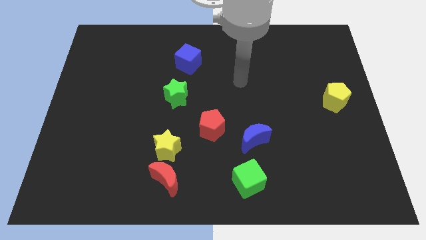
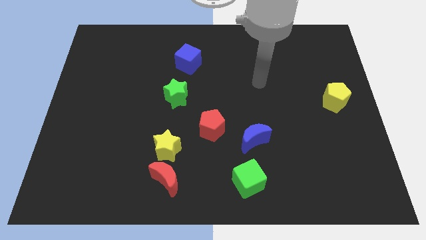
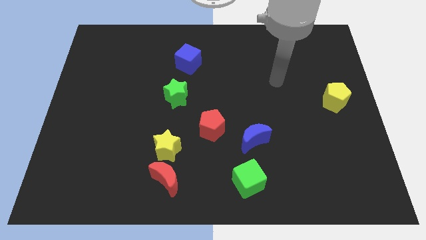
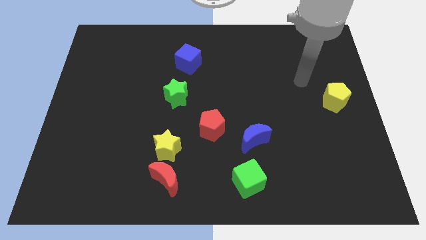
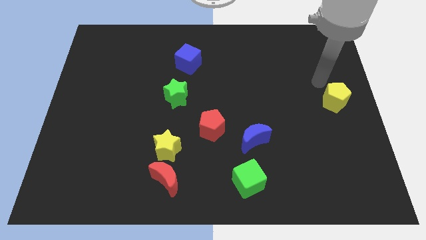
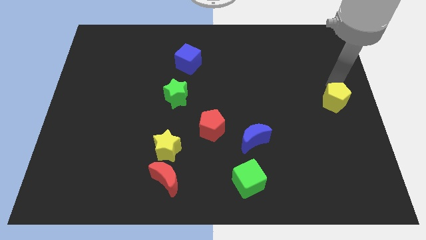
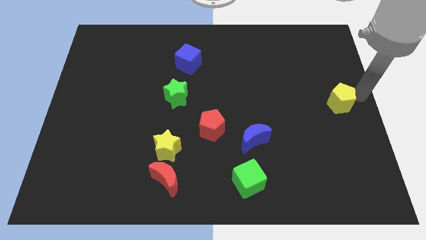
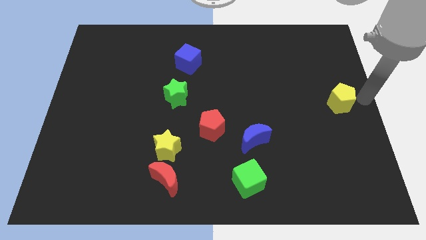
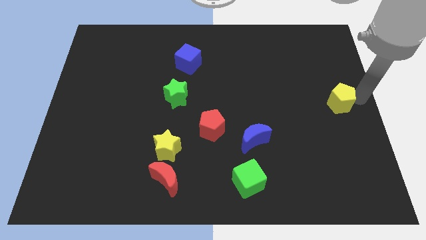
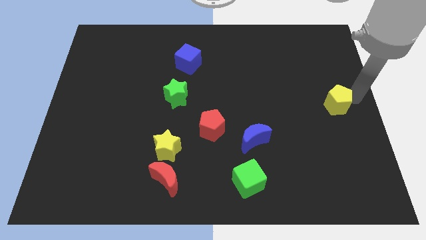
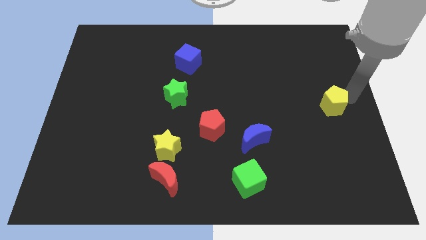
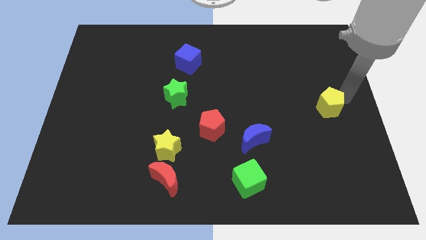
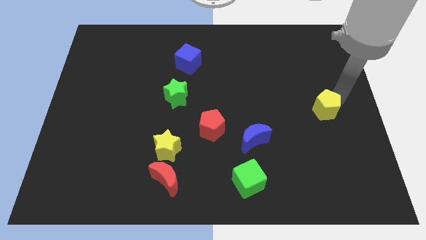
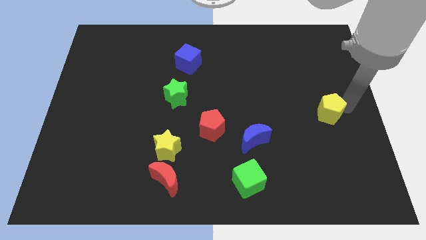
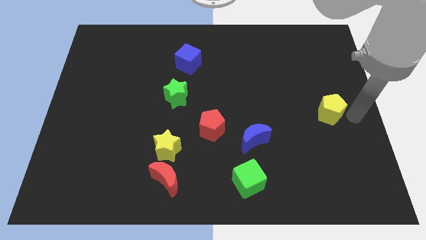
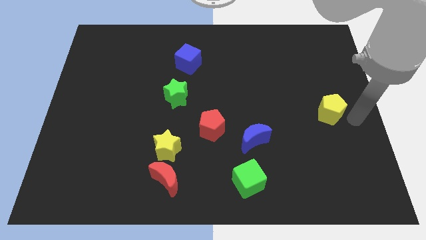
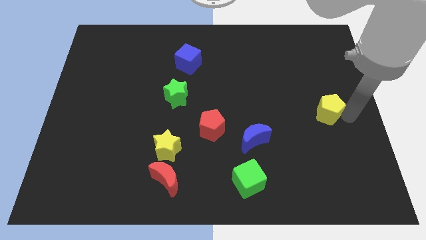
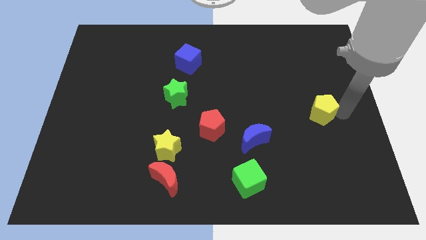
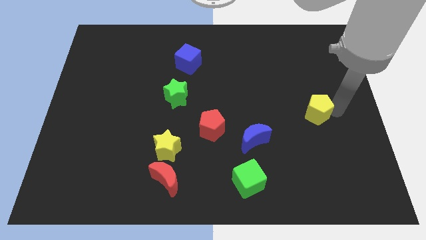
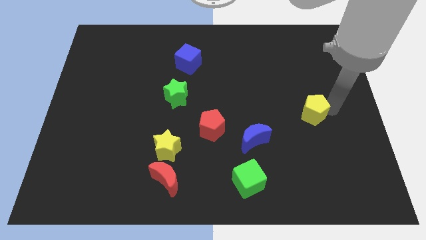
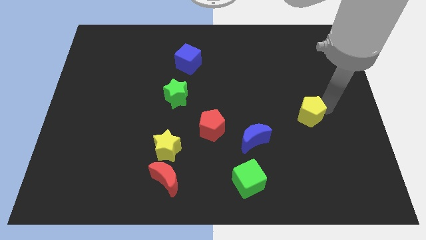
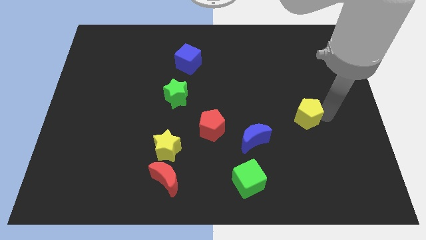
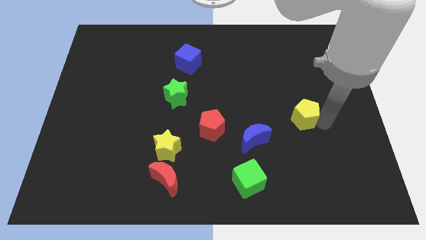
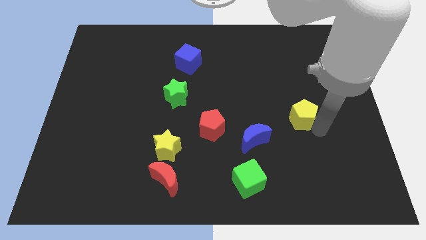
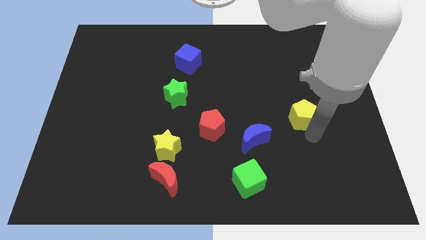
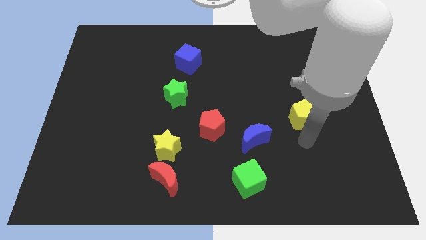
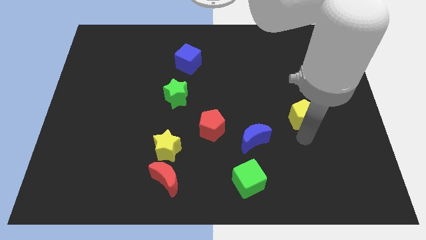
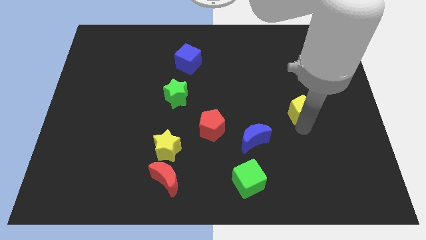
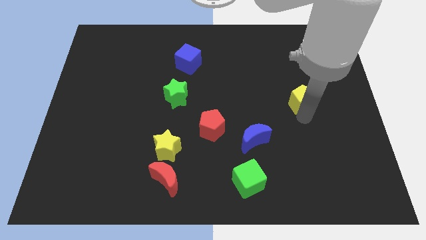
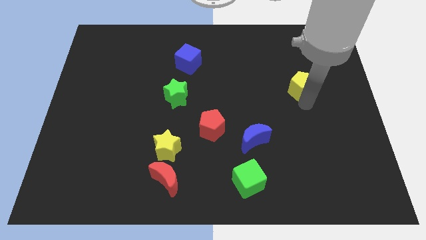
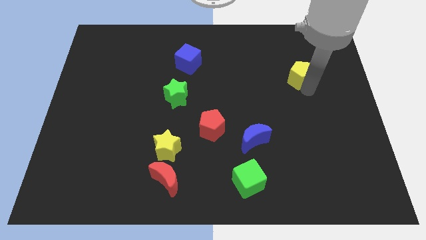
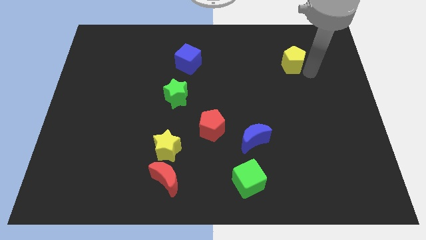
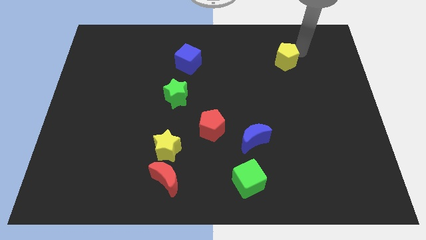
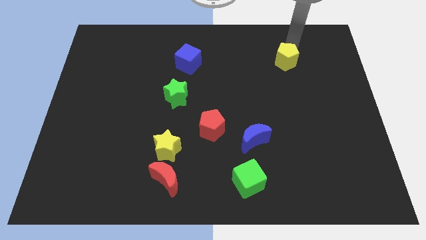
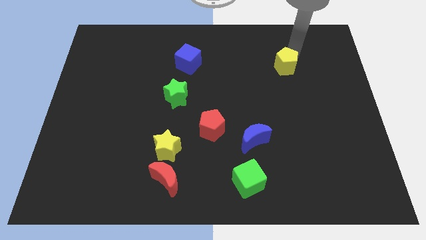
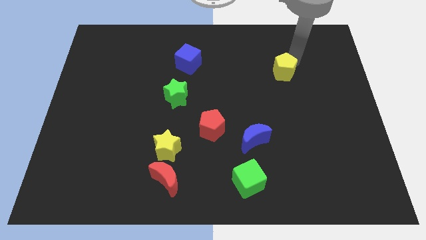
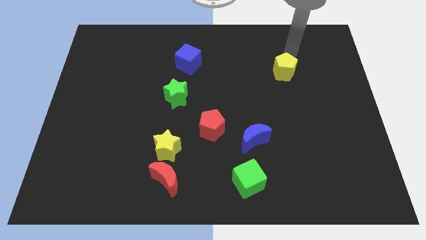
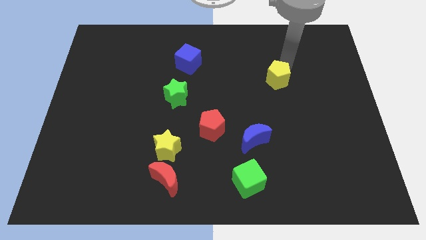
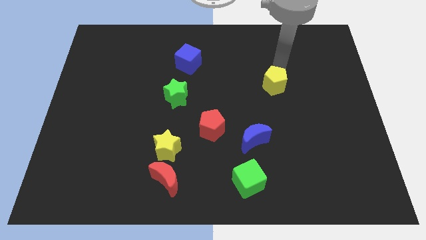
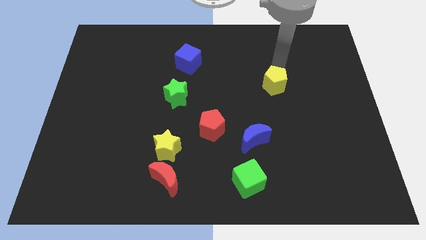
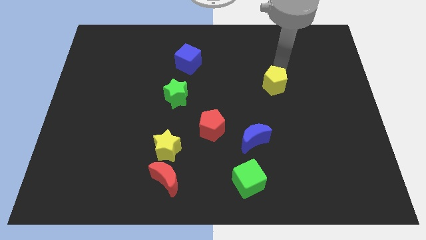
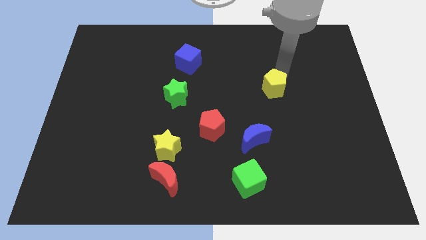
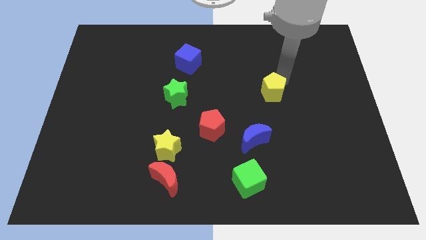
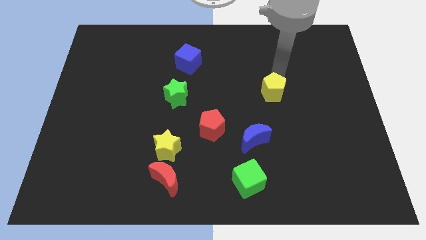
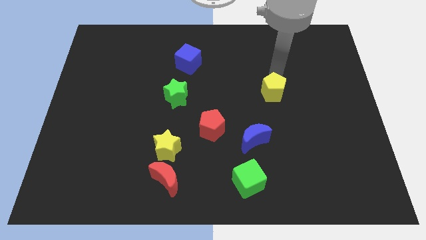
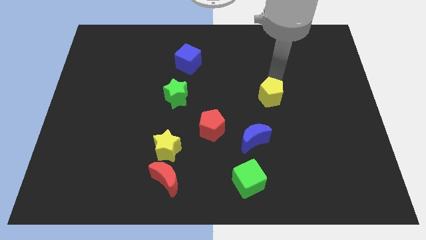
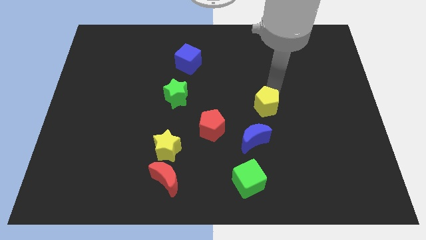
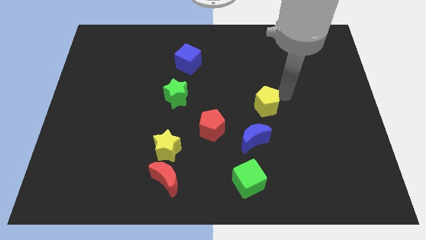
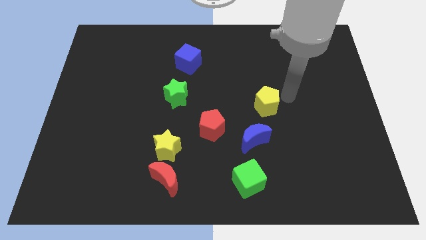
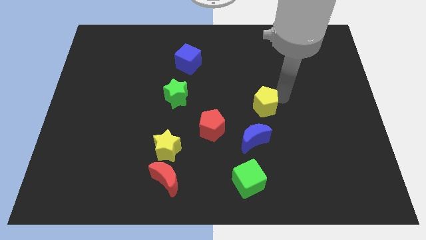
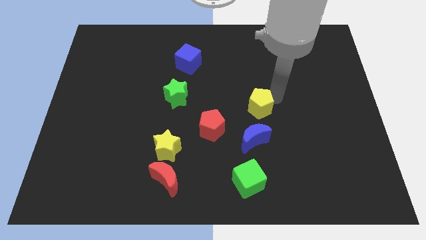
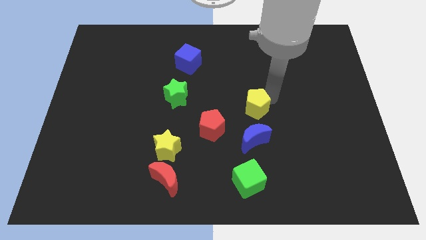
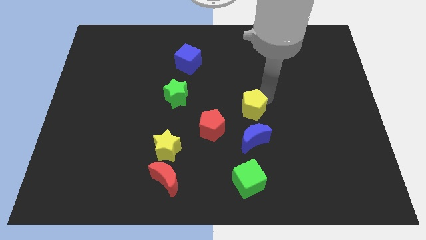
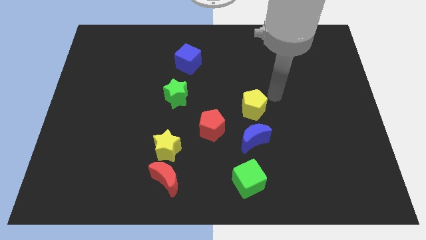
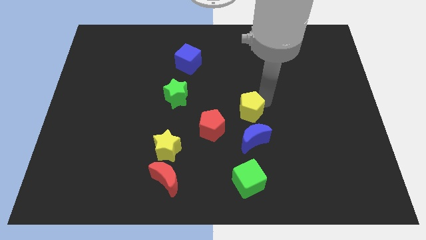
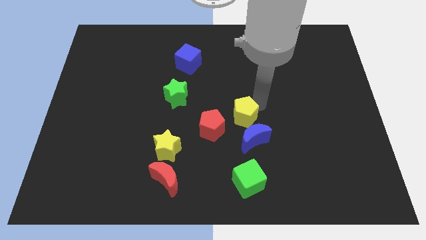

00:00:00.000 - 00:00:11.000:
slide the yellow pentagon diagonally up and to the left of the blue moon

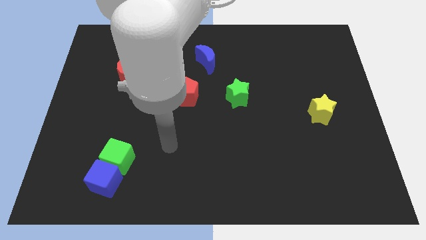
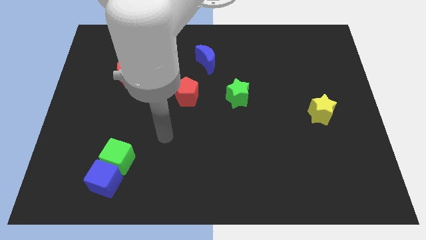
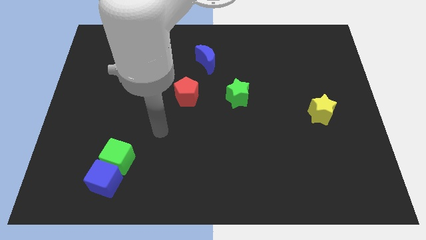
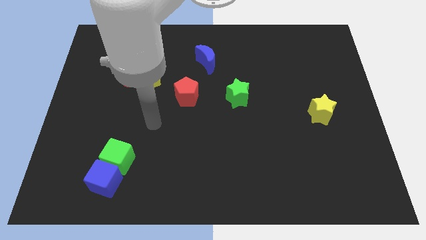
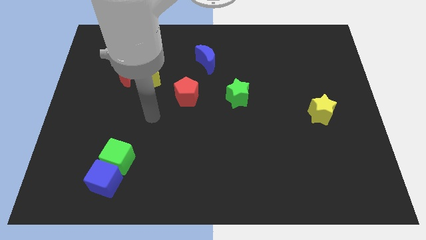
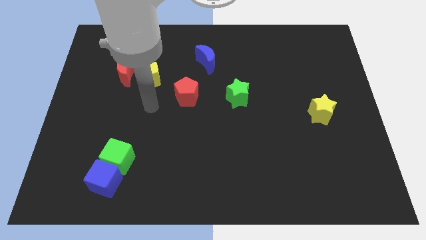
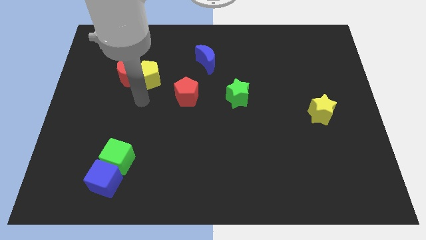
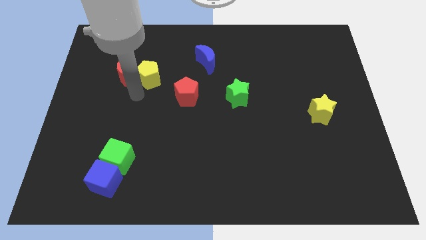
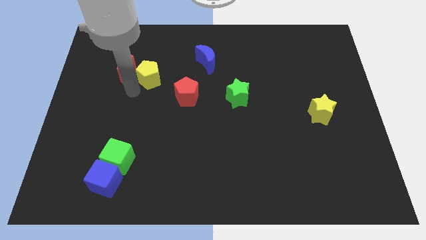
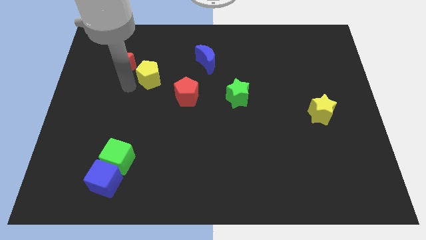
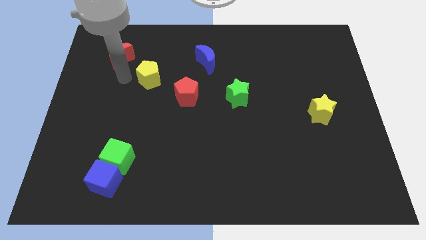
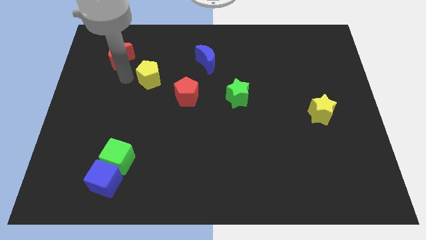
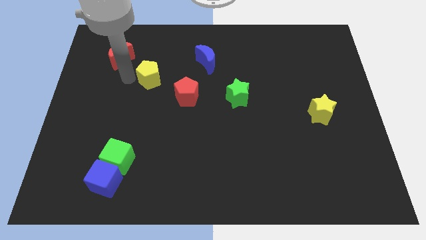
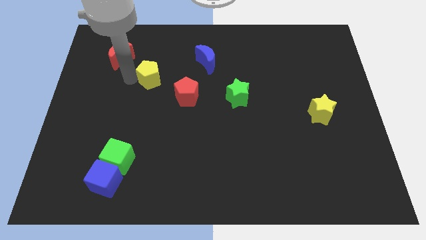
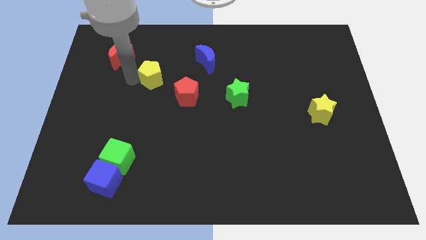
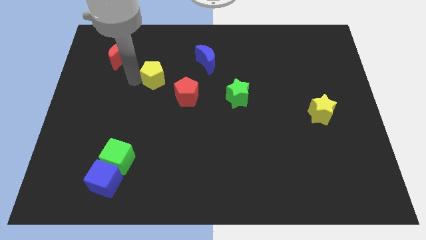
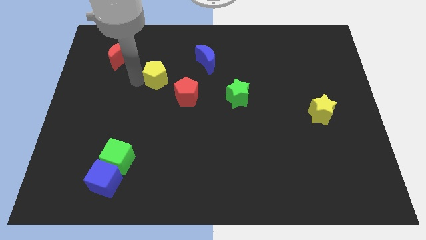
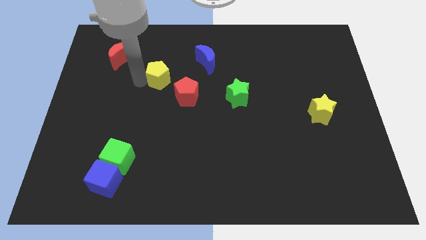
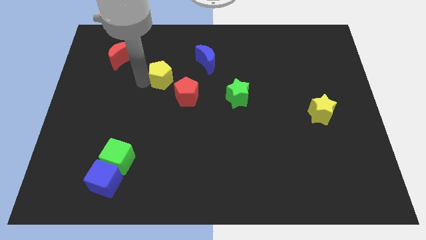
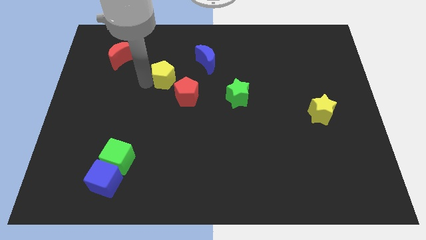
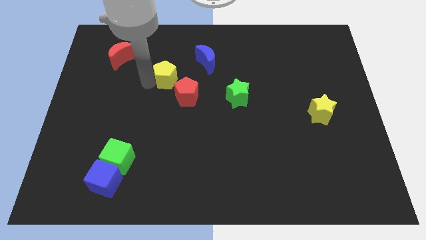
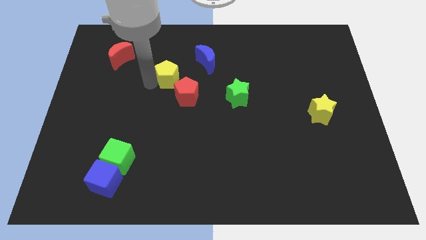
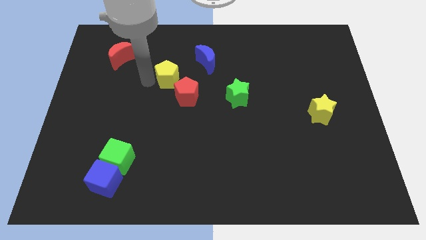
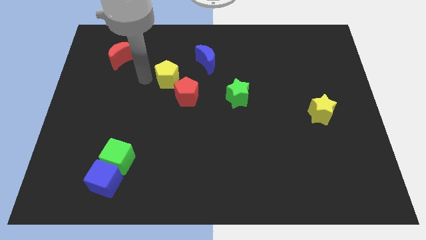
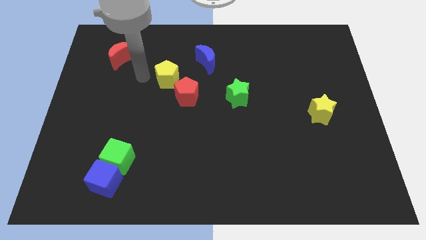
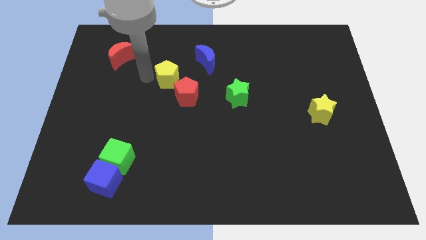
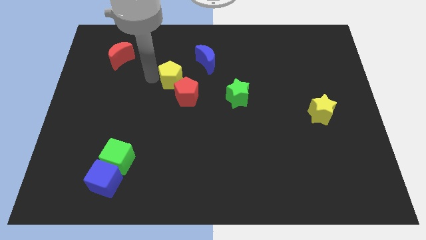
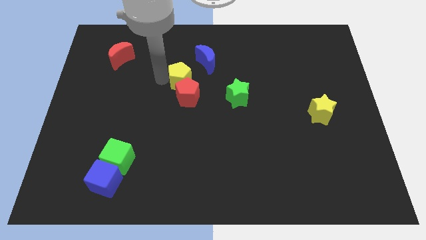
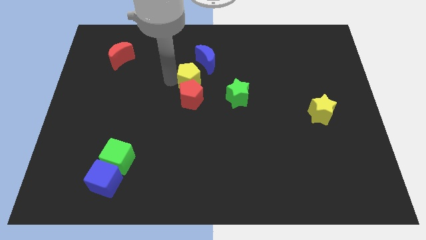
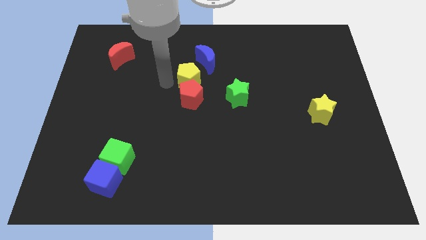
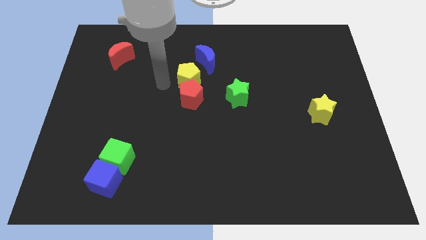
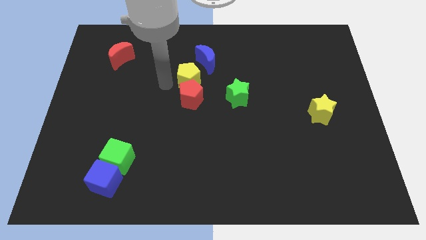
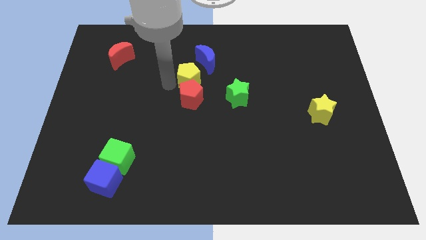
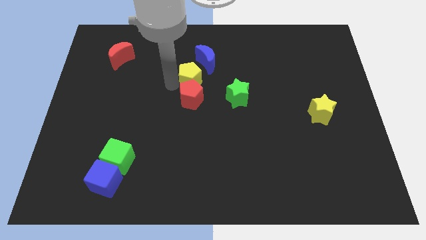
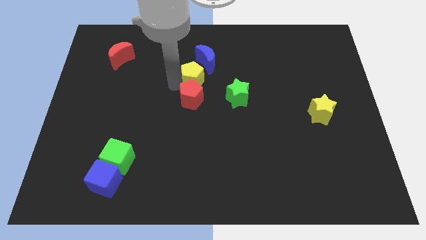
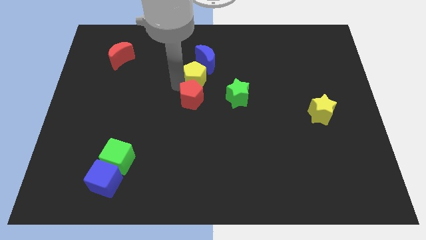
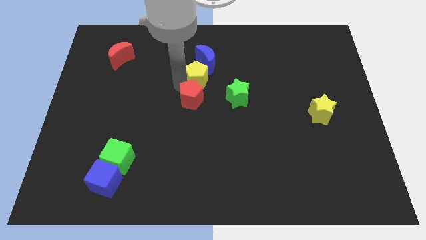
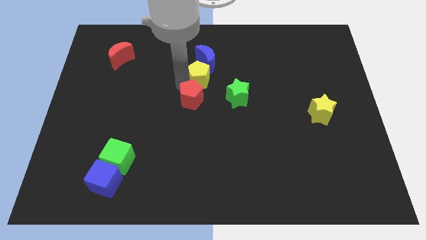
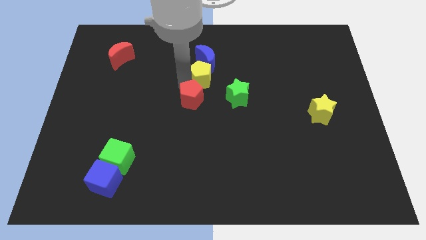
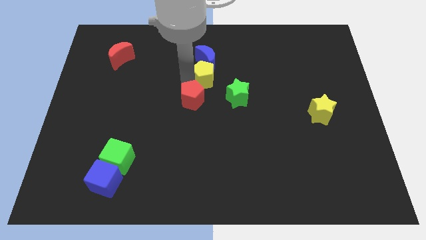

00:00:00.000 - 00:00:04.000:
push the yellow pentagon to the bottom right of the blue moon
